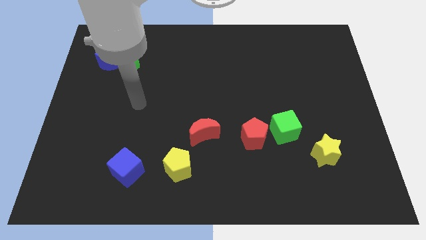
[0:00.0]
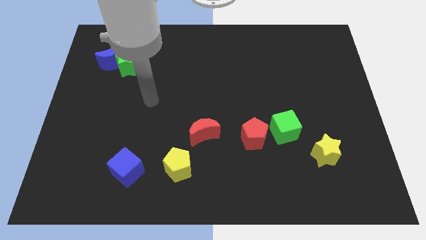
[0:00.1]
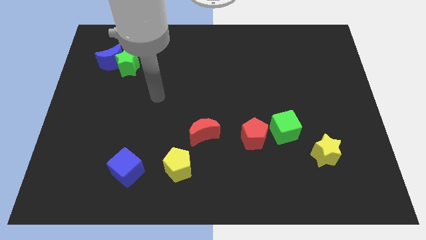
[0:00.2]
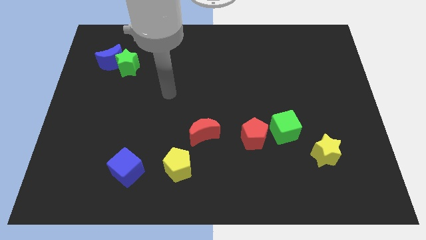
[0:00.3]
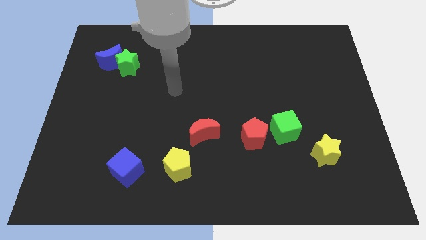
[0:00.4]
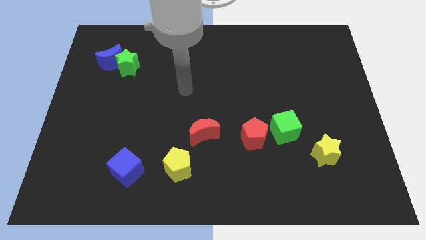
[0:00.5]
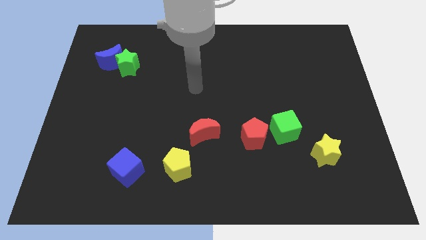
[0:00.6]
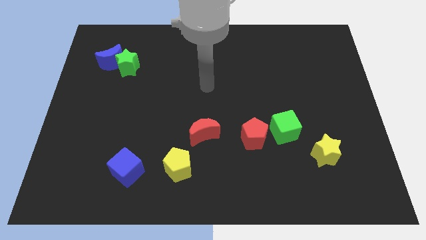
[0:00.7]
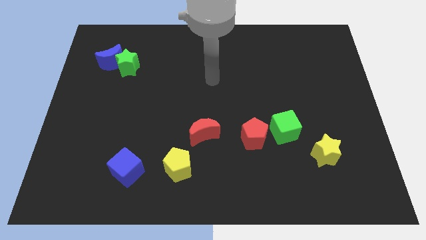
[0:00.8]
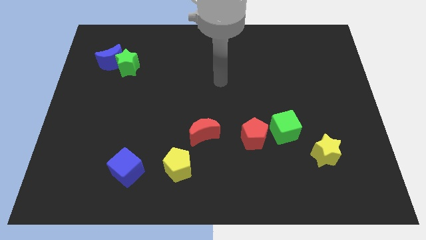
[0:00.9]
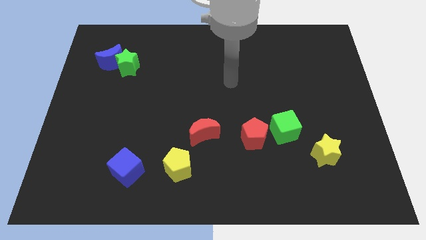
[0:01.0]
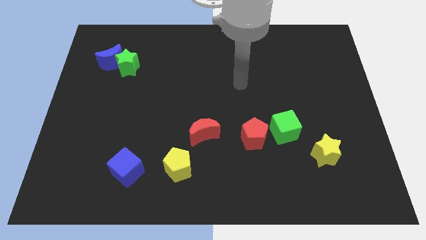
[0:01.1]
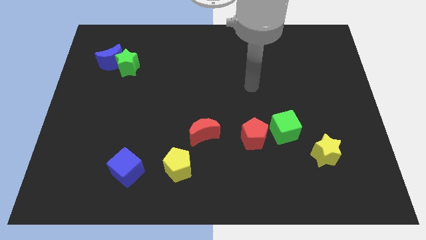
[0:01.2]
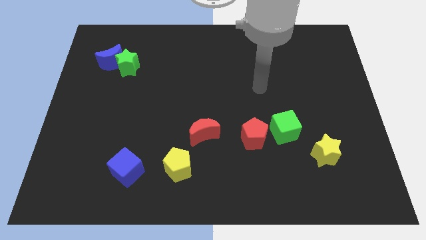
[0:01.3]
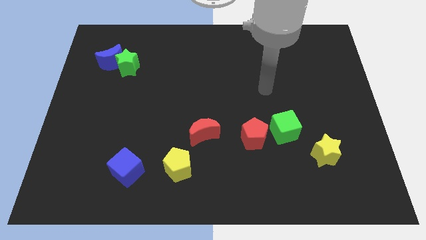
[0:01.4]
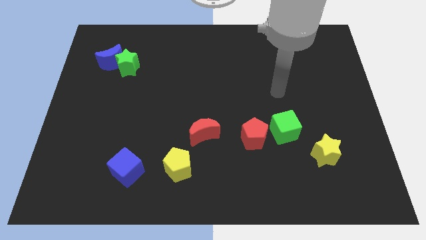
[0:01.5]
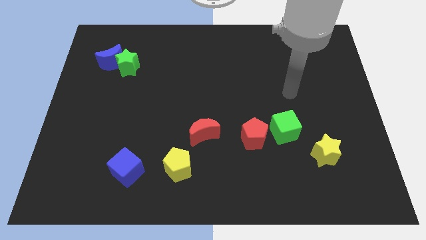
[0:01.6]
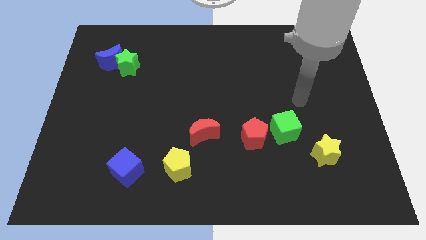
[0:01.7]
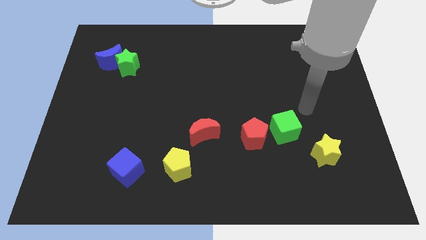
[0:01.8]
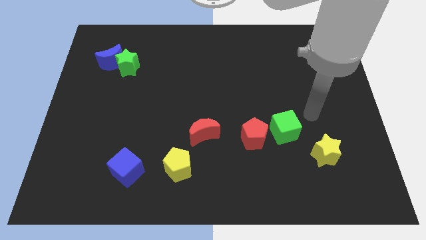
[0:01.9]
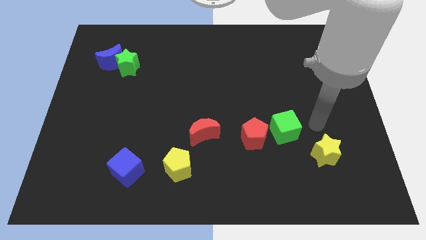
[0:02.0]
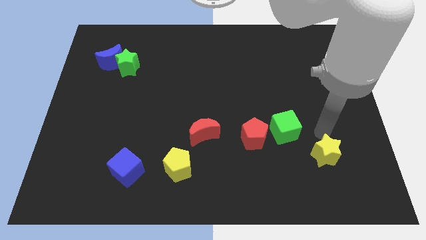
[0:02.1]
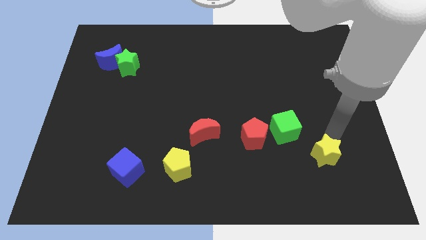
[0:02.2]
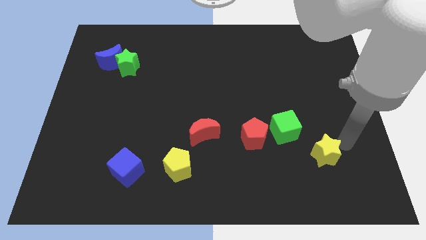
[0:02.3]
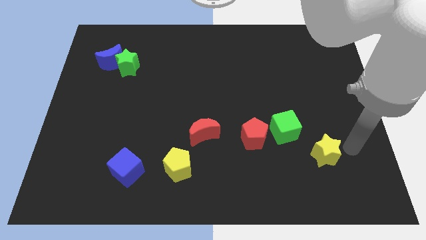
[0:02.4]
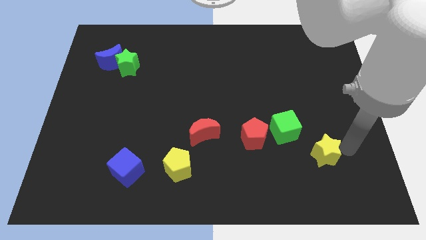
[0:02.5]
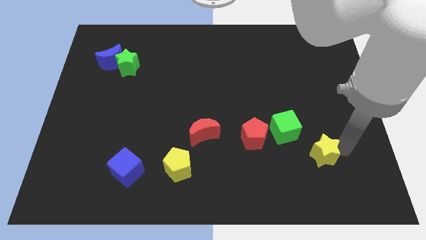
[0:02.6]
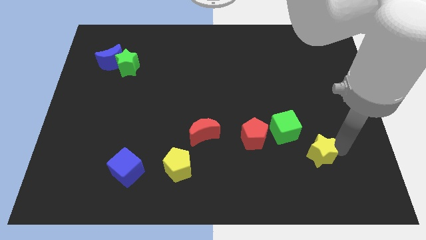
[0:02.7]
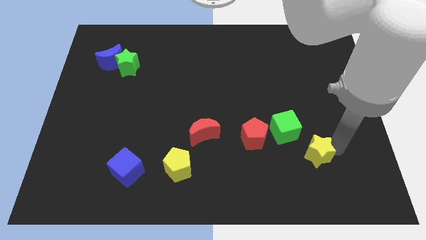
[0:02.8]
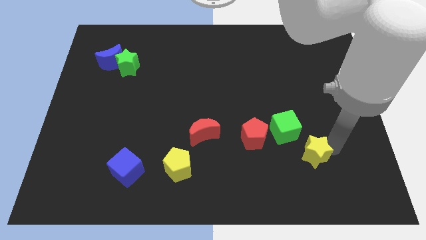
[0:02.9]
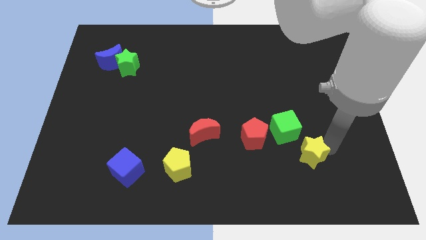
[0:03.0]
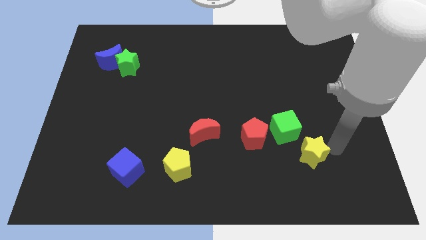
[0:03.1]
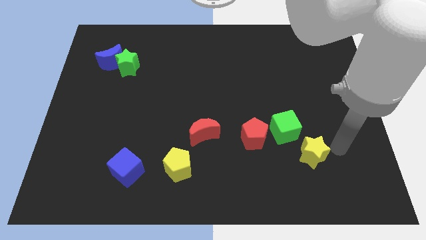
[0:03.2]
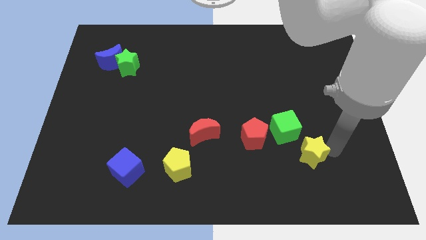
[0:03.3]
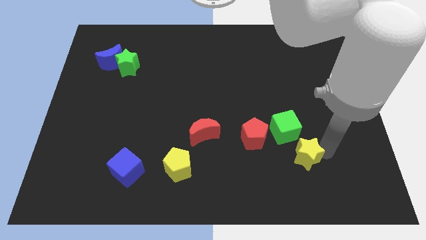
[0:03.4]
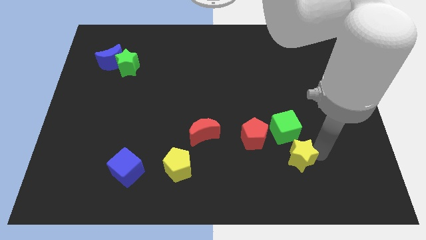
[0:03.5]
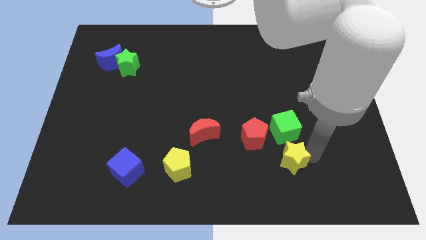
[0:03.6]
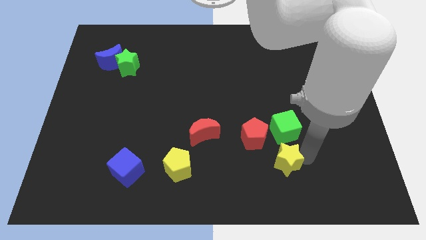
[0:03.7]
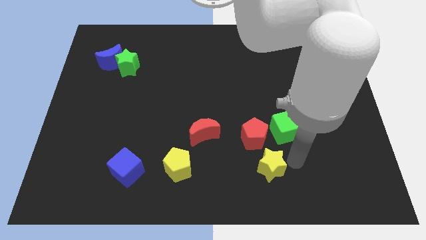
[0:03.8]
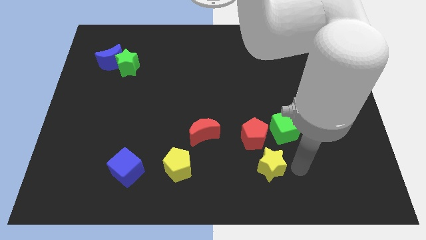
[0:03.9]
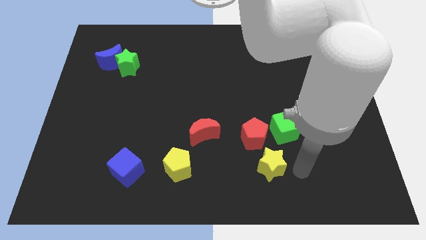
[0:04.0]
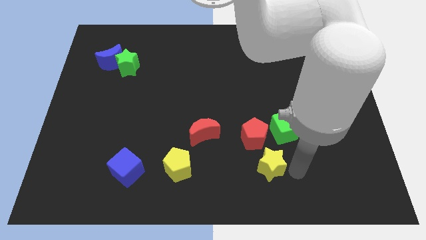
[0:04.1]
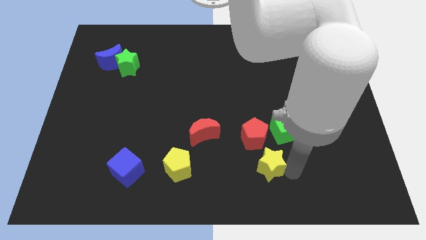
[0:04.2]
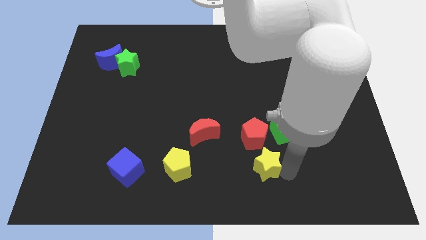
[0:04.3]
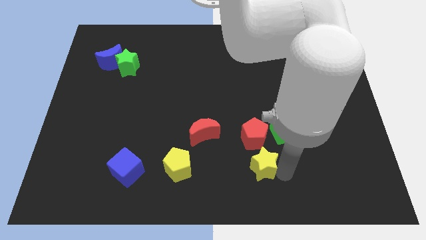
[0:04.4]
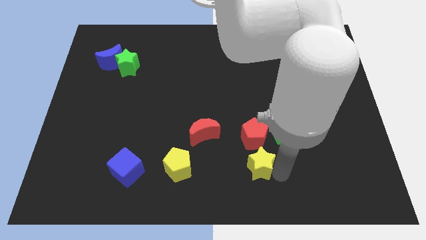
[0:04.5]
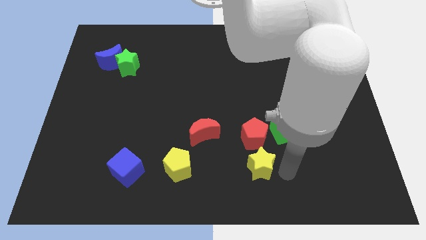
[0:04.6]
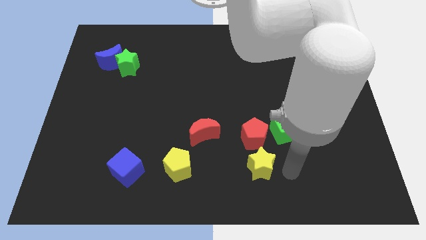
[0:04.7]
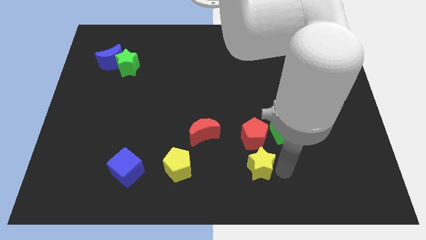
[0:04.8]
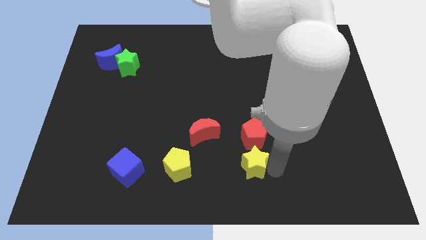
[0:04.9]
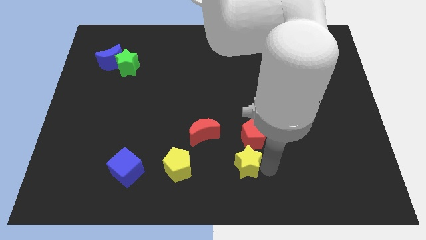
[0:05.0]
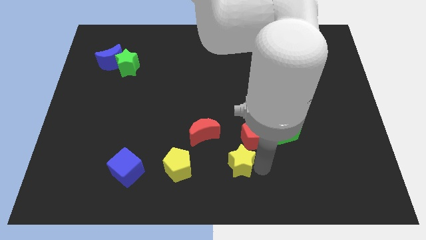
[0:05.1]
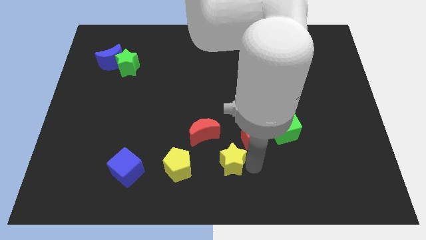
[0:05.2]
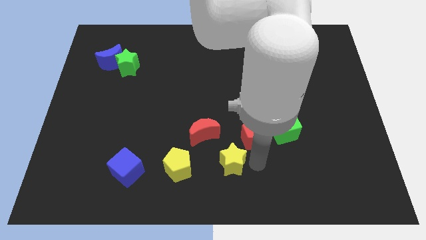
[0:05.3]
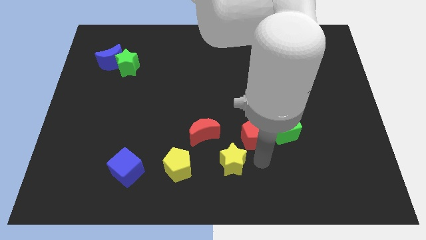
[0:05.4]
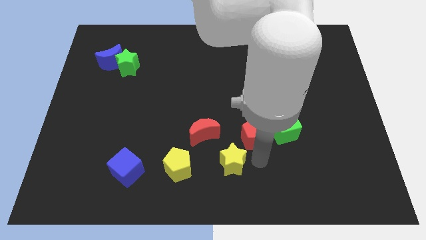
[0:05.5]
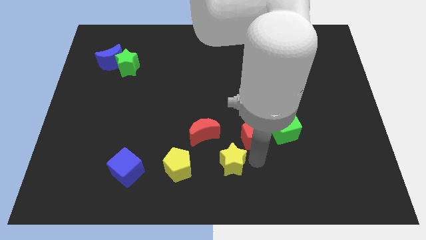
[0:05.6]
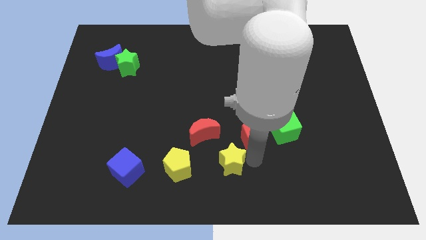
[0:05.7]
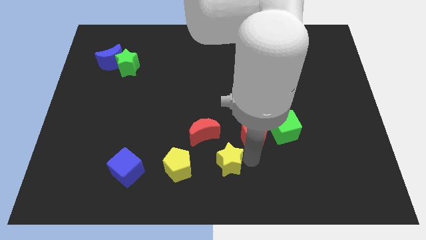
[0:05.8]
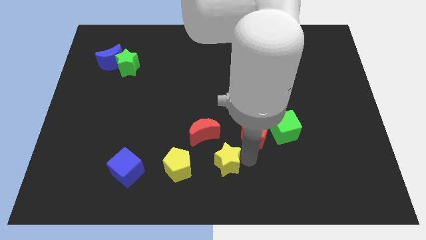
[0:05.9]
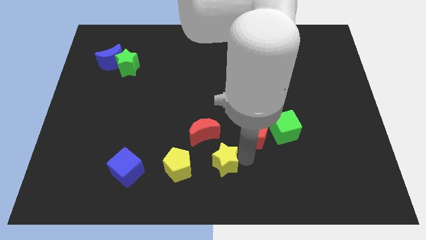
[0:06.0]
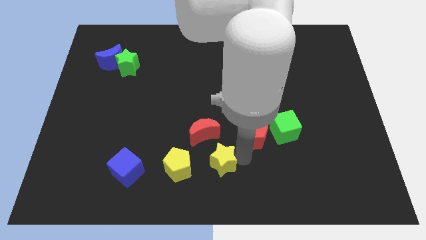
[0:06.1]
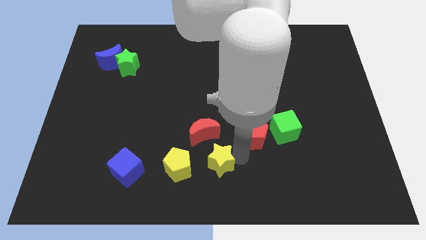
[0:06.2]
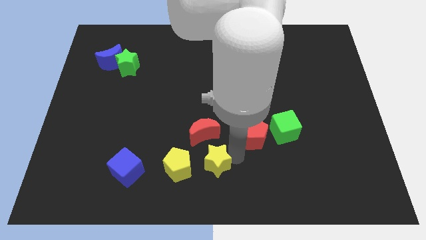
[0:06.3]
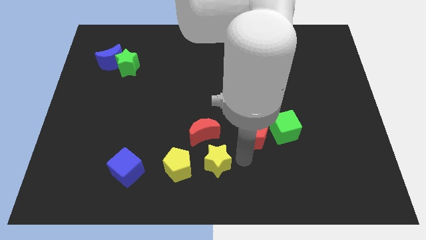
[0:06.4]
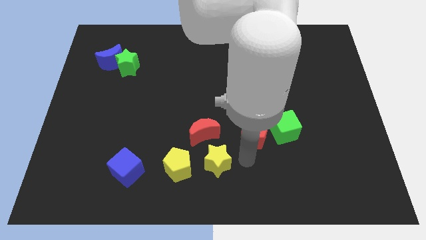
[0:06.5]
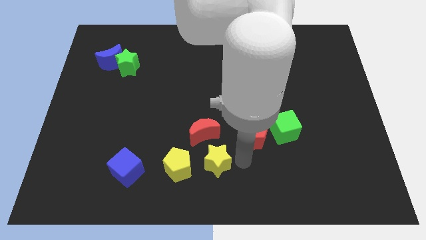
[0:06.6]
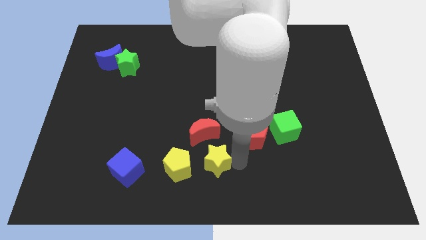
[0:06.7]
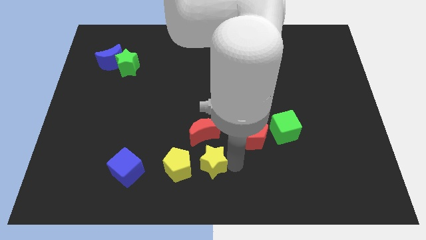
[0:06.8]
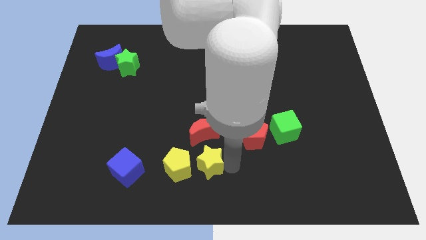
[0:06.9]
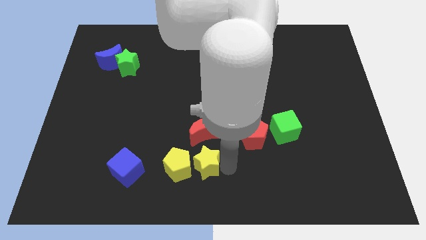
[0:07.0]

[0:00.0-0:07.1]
move the yellow star to the yellow pentagon
